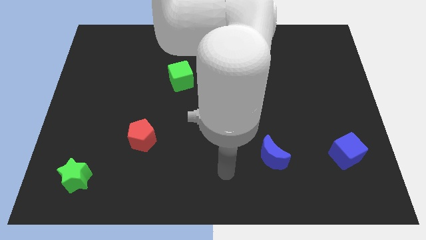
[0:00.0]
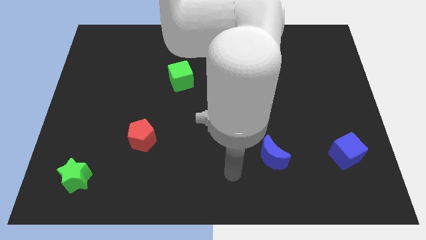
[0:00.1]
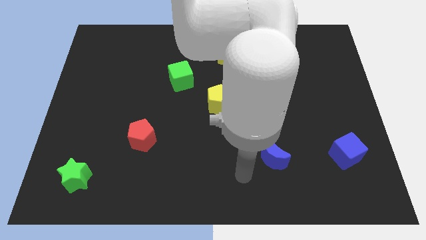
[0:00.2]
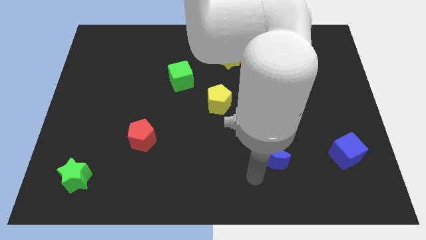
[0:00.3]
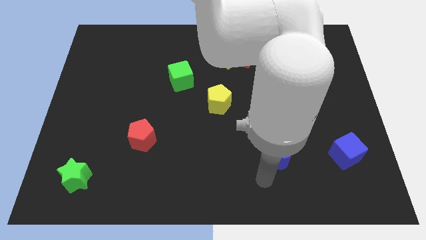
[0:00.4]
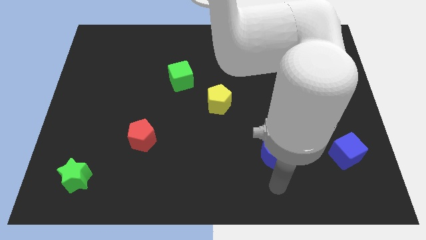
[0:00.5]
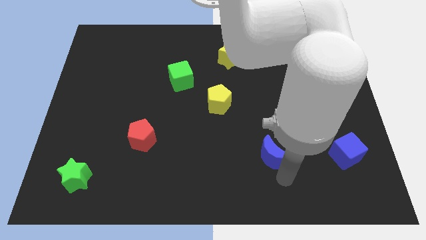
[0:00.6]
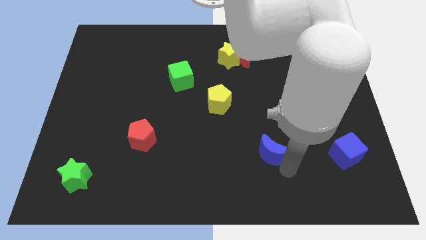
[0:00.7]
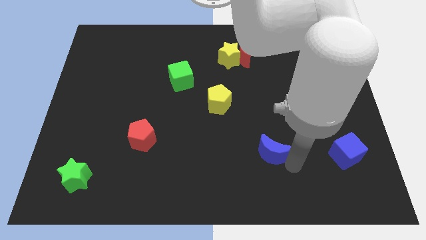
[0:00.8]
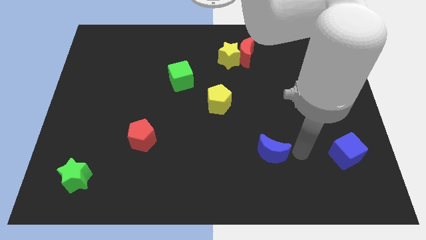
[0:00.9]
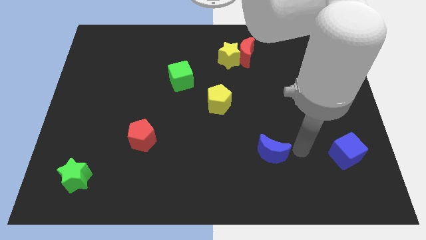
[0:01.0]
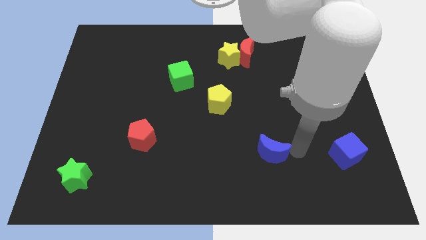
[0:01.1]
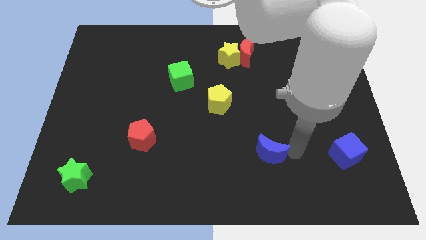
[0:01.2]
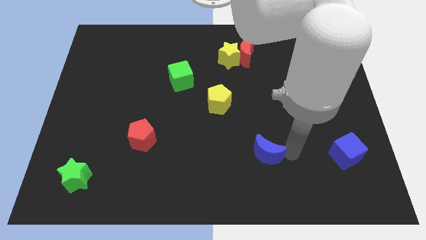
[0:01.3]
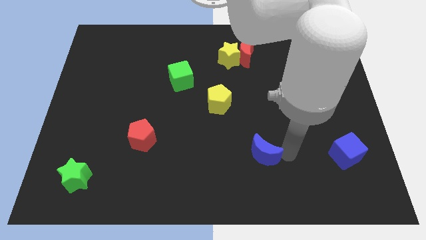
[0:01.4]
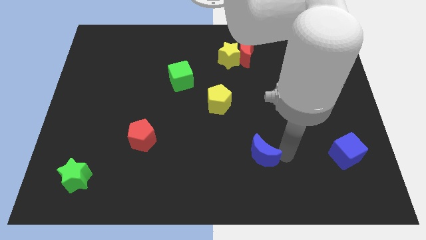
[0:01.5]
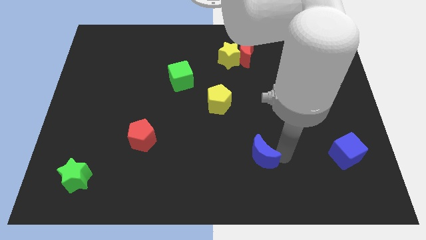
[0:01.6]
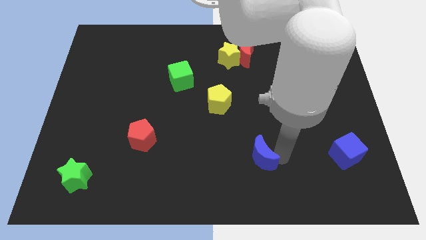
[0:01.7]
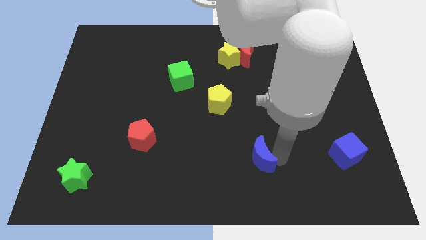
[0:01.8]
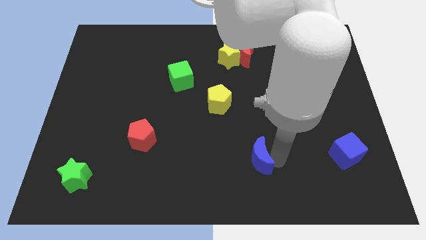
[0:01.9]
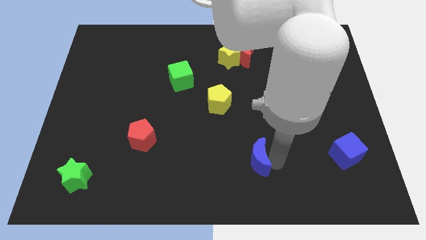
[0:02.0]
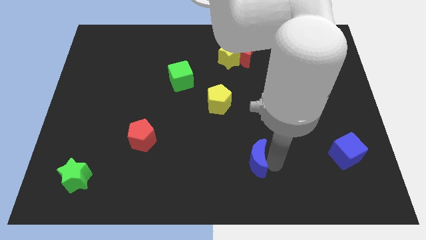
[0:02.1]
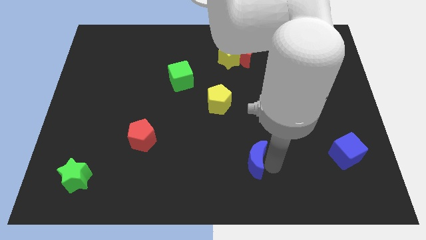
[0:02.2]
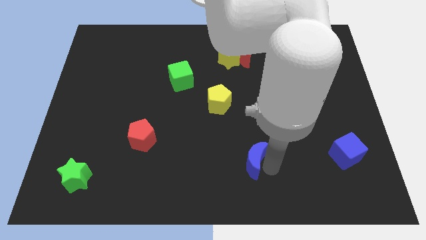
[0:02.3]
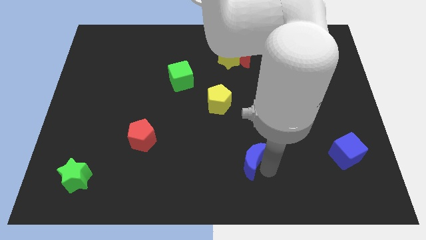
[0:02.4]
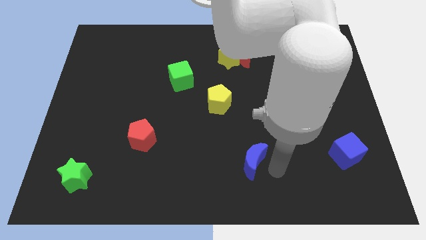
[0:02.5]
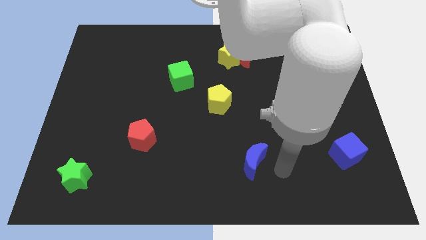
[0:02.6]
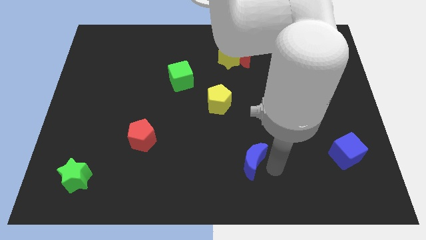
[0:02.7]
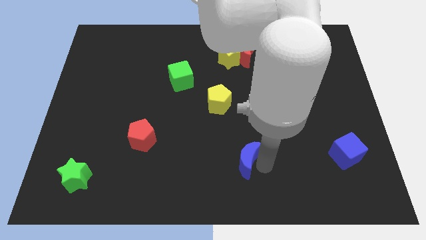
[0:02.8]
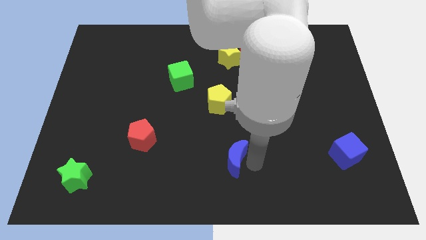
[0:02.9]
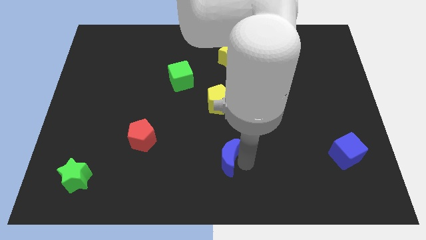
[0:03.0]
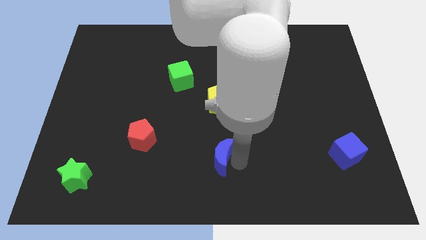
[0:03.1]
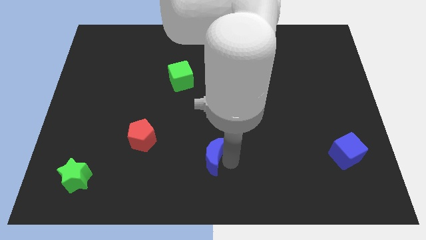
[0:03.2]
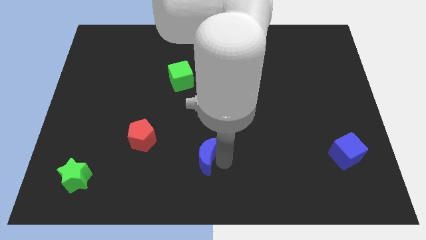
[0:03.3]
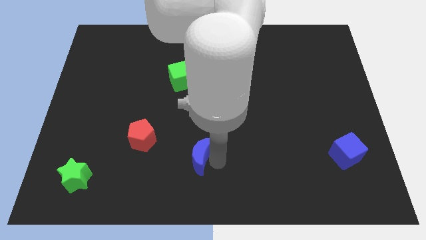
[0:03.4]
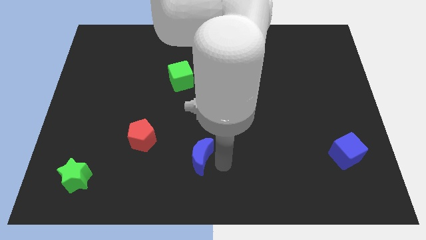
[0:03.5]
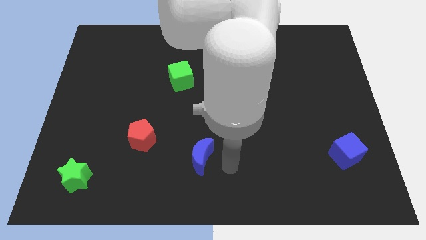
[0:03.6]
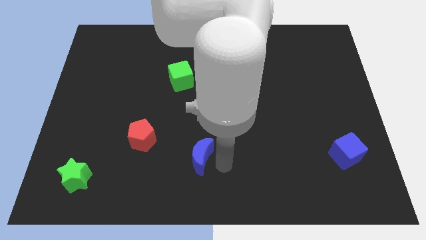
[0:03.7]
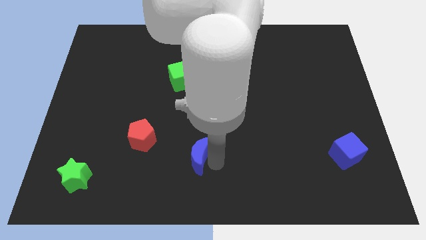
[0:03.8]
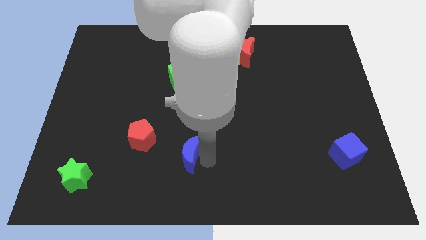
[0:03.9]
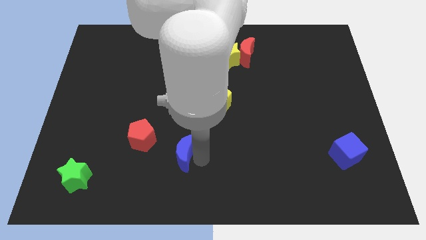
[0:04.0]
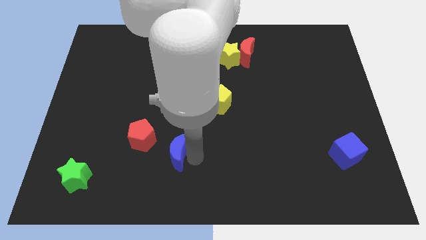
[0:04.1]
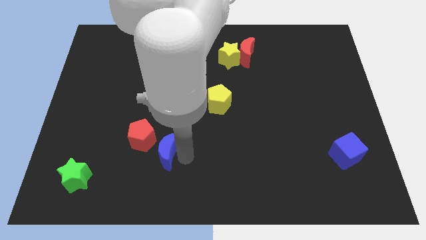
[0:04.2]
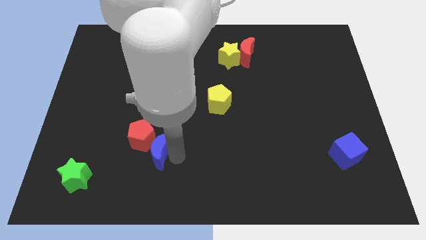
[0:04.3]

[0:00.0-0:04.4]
push the blue moon close to the red pentagon

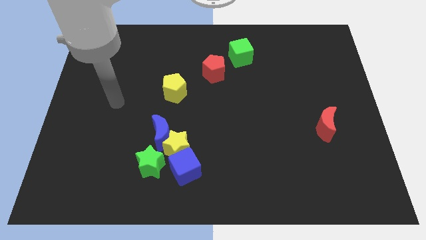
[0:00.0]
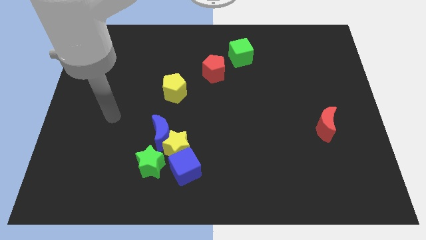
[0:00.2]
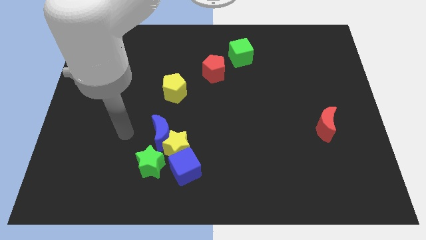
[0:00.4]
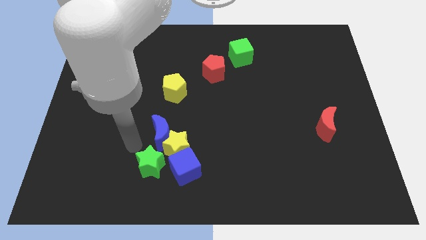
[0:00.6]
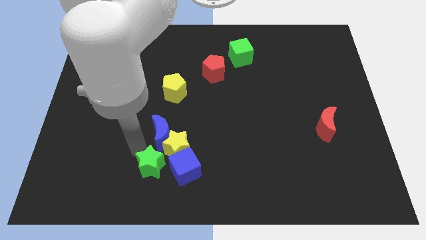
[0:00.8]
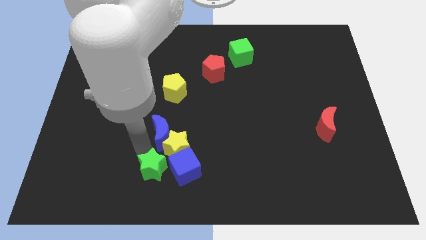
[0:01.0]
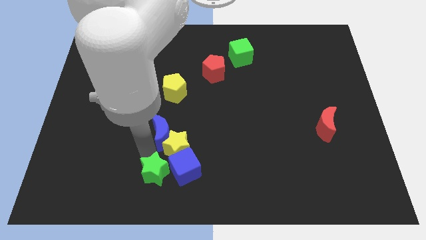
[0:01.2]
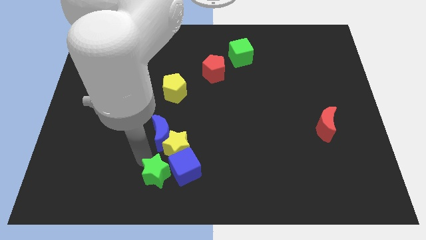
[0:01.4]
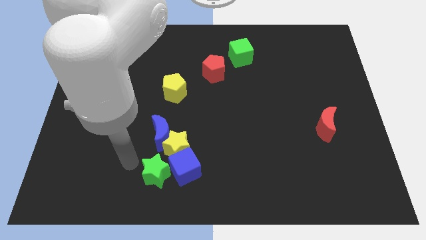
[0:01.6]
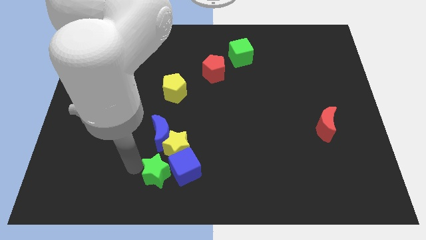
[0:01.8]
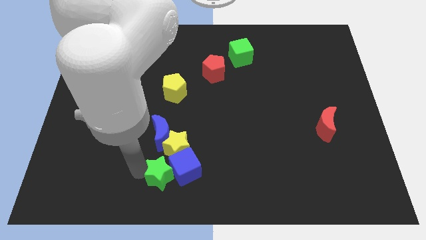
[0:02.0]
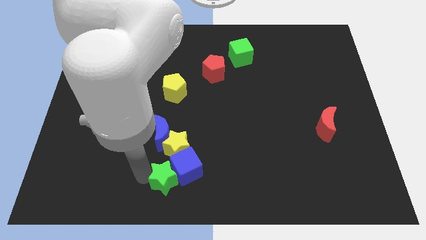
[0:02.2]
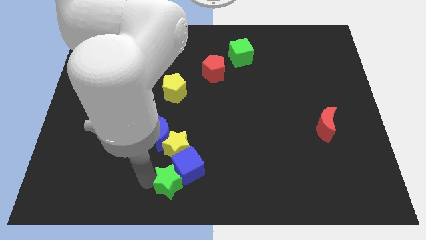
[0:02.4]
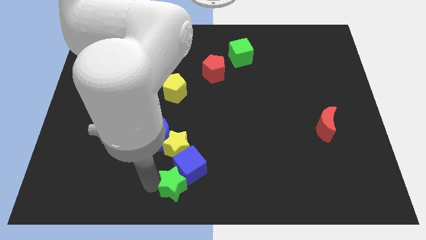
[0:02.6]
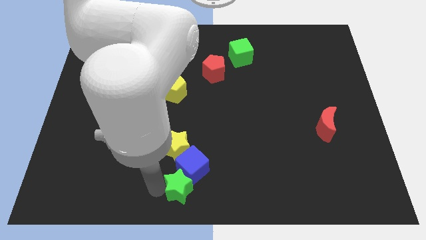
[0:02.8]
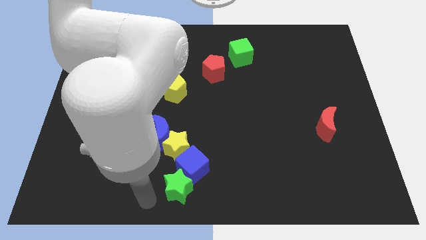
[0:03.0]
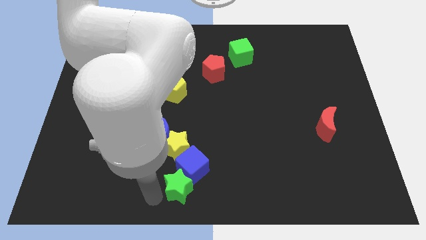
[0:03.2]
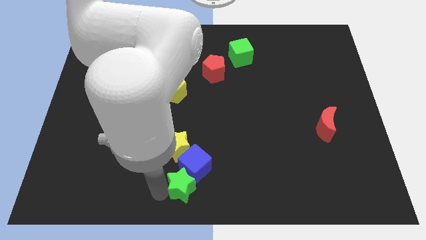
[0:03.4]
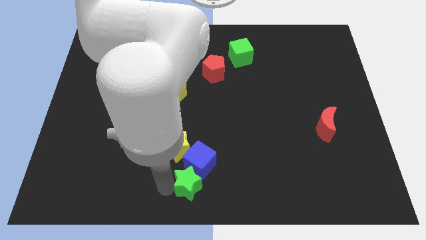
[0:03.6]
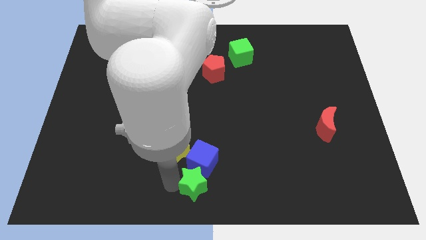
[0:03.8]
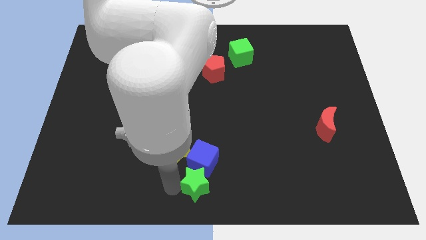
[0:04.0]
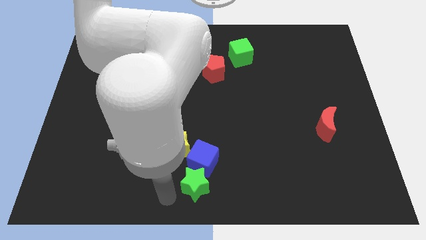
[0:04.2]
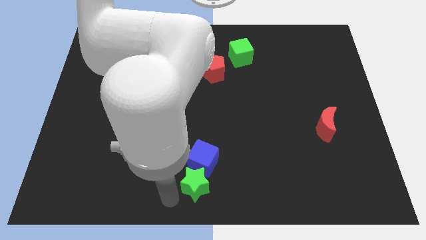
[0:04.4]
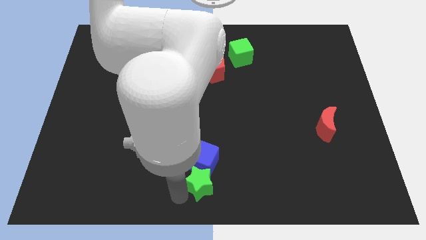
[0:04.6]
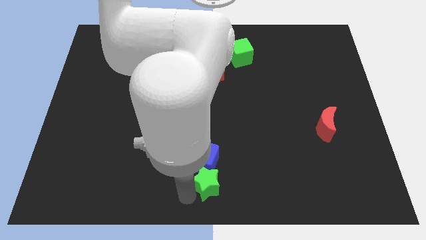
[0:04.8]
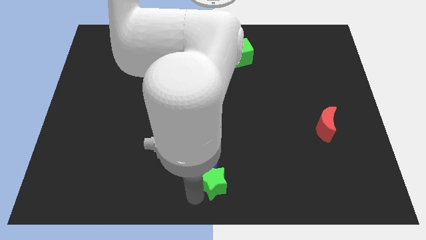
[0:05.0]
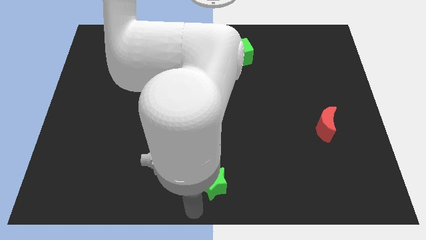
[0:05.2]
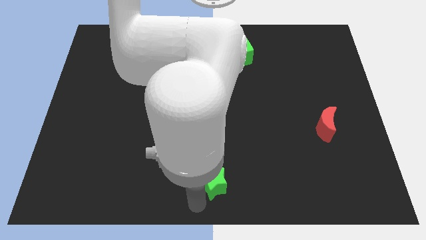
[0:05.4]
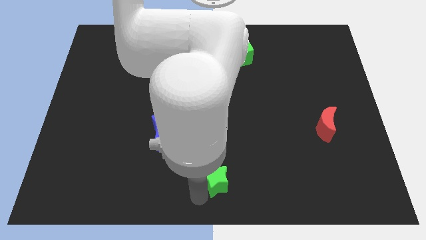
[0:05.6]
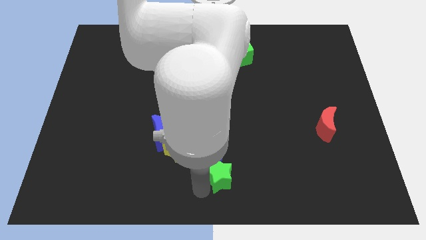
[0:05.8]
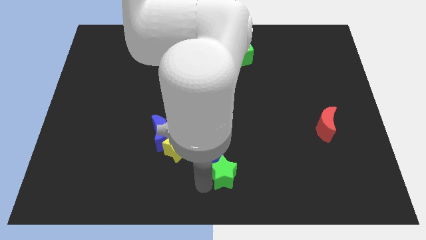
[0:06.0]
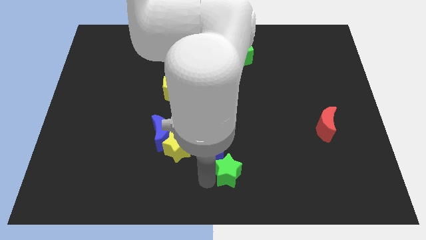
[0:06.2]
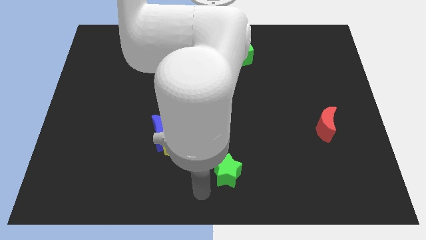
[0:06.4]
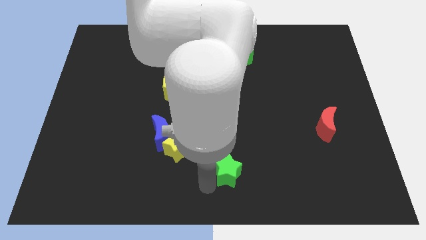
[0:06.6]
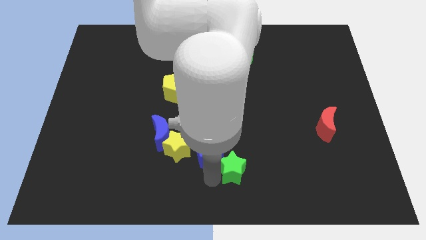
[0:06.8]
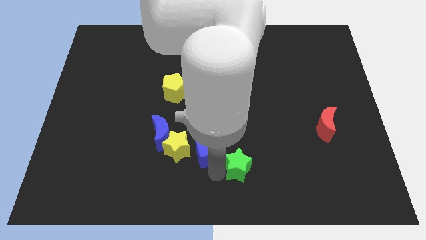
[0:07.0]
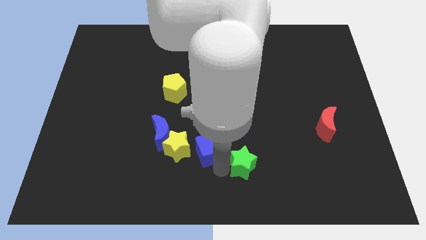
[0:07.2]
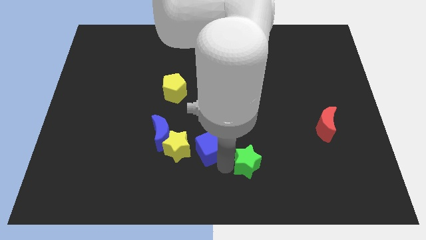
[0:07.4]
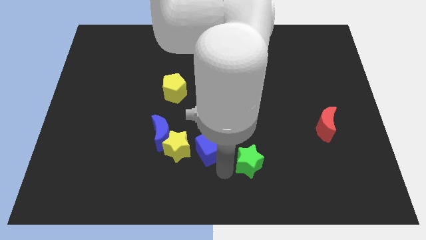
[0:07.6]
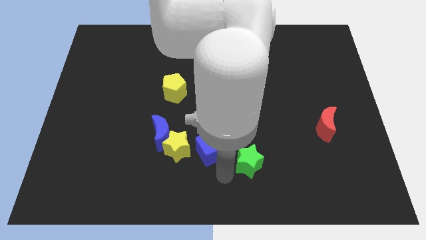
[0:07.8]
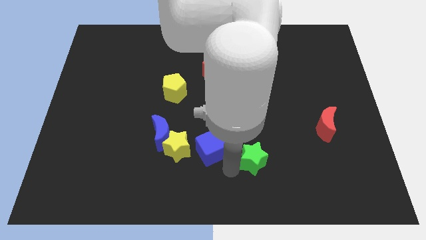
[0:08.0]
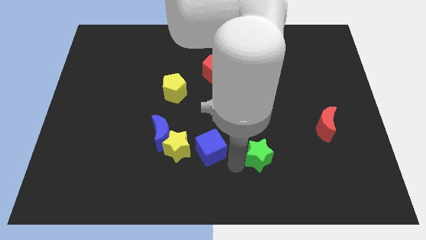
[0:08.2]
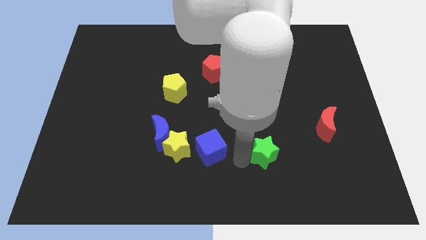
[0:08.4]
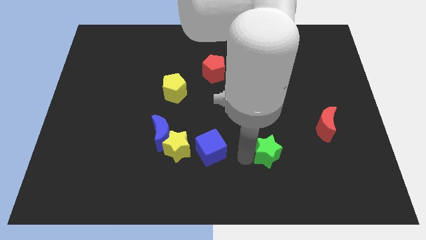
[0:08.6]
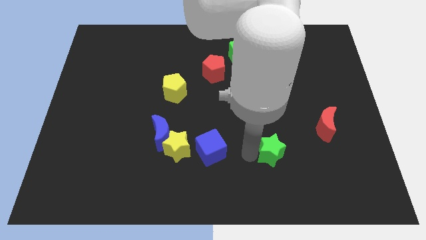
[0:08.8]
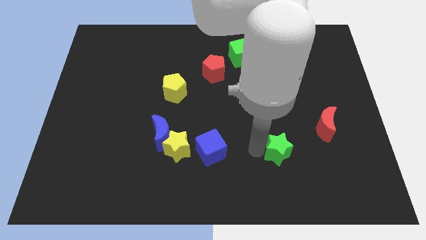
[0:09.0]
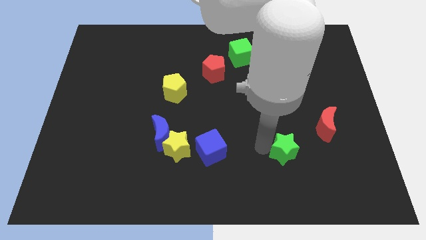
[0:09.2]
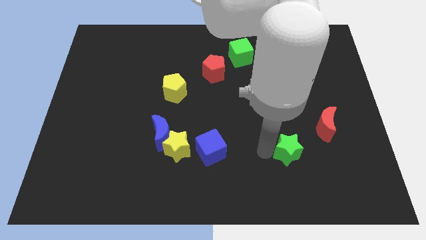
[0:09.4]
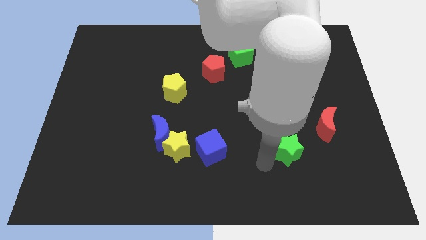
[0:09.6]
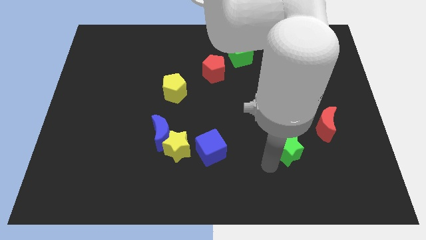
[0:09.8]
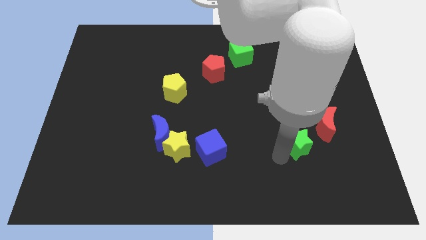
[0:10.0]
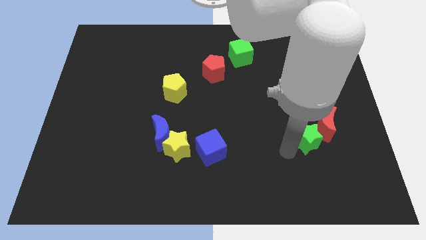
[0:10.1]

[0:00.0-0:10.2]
slide the green star to the red moon
